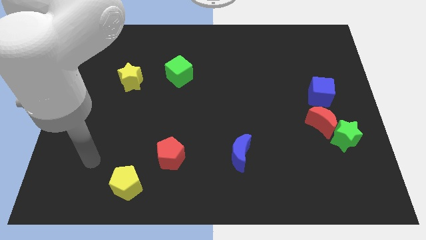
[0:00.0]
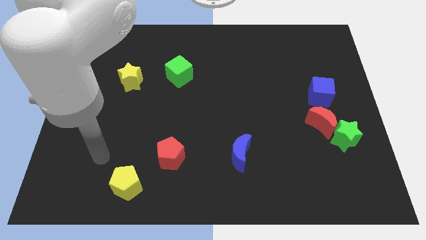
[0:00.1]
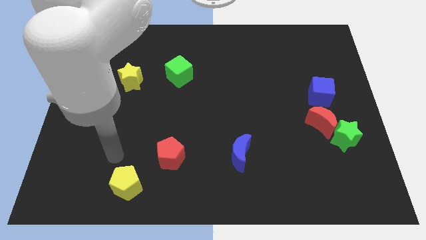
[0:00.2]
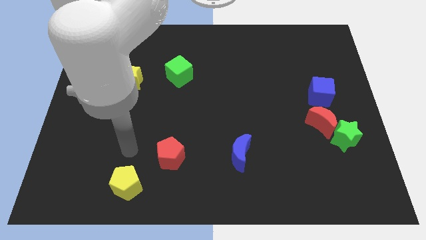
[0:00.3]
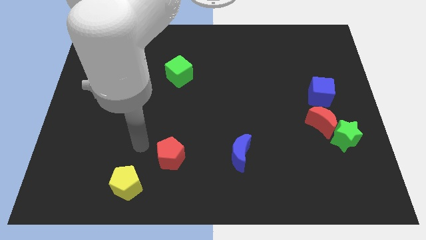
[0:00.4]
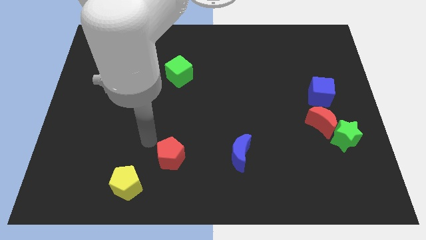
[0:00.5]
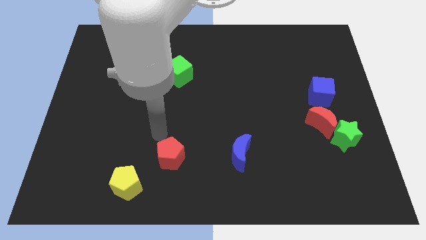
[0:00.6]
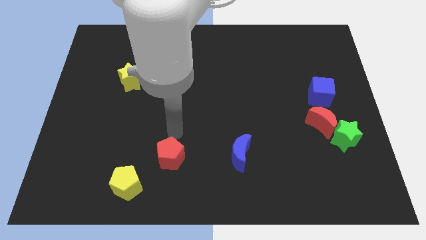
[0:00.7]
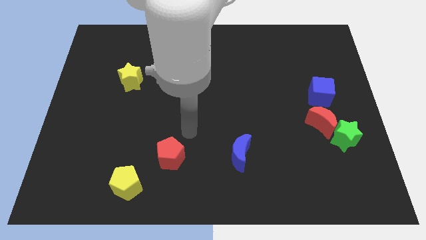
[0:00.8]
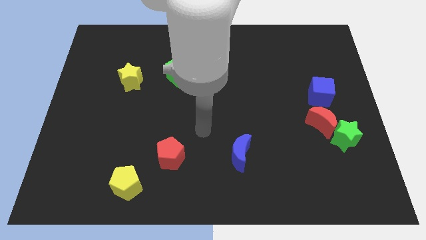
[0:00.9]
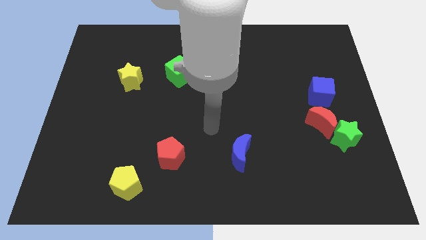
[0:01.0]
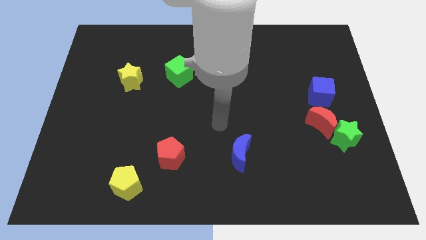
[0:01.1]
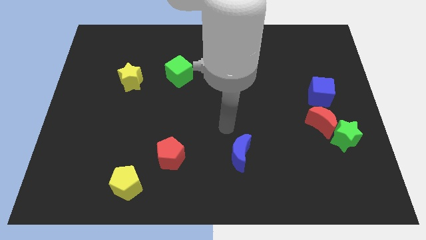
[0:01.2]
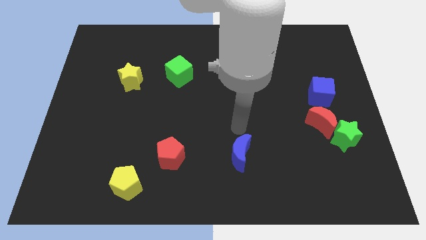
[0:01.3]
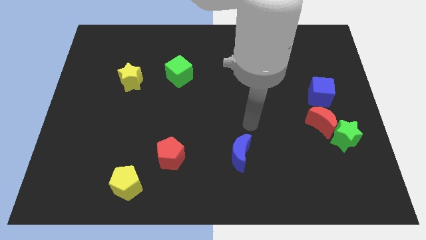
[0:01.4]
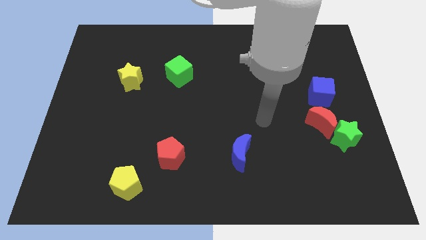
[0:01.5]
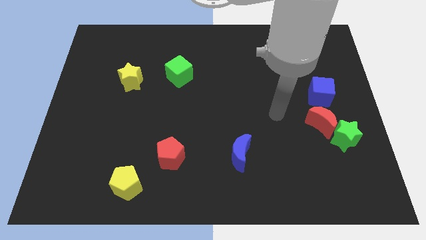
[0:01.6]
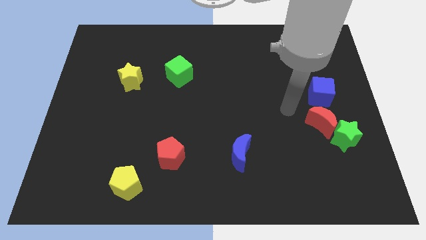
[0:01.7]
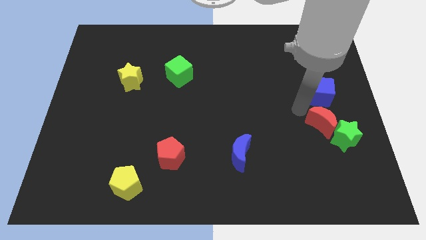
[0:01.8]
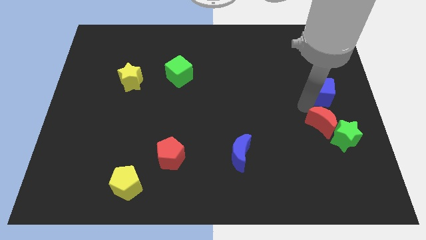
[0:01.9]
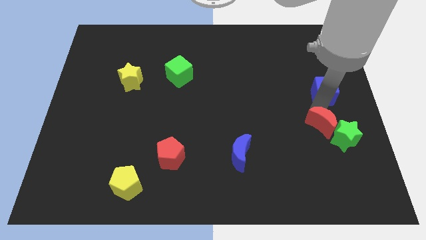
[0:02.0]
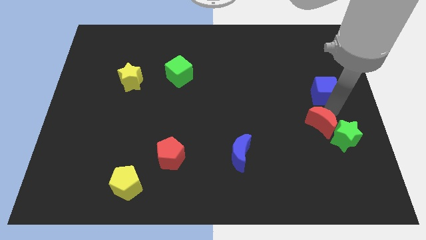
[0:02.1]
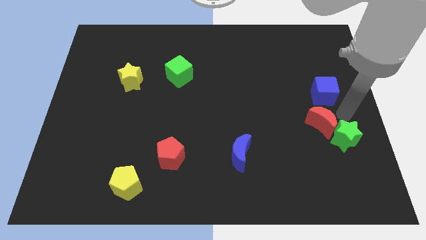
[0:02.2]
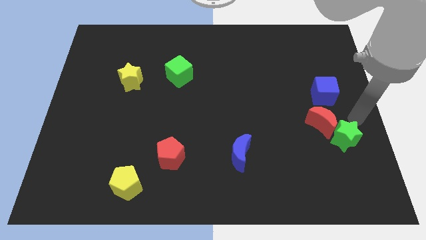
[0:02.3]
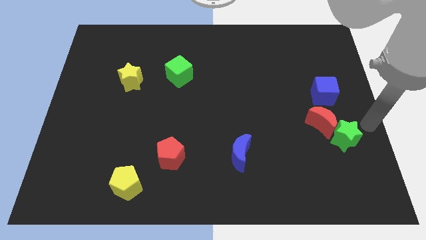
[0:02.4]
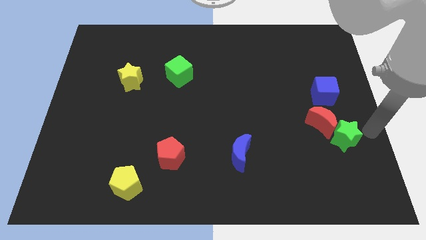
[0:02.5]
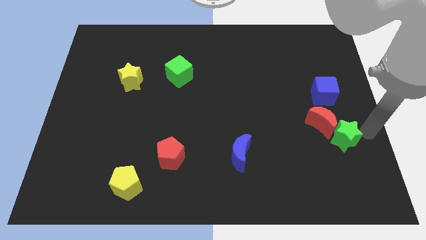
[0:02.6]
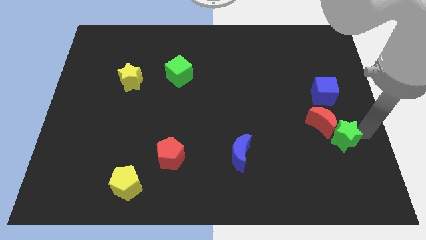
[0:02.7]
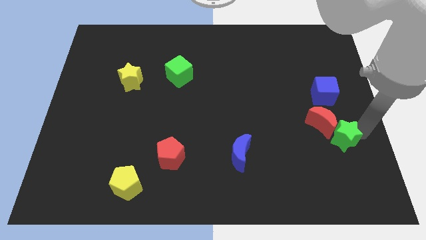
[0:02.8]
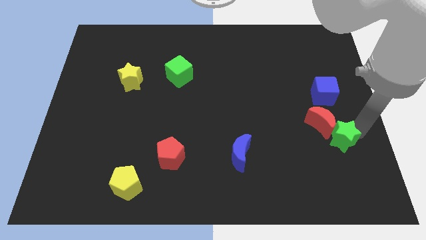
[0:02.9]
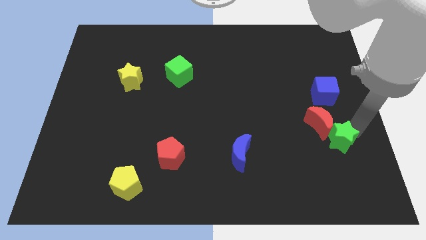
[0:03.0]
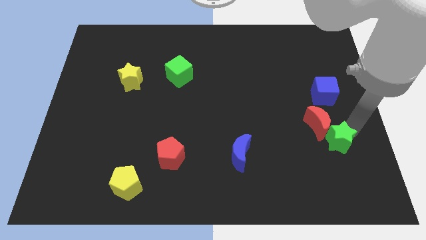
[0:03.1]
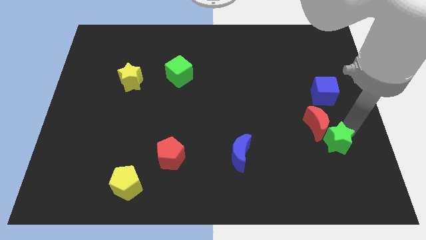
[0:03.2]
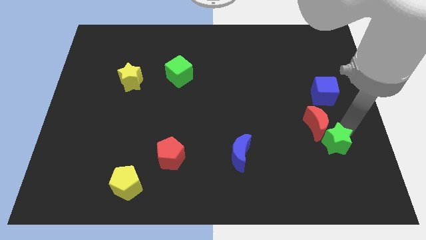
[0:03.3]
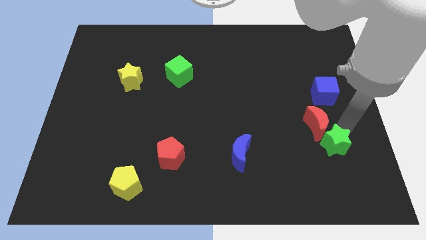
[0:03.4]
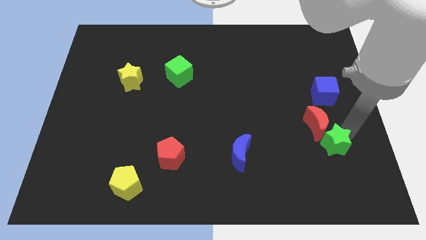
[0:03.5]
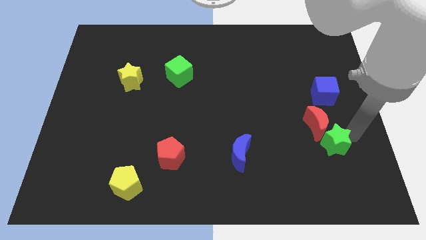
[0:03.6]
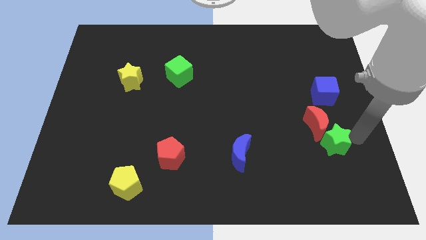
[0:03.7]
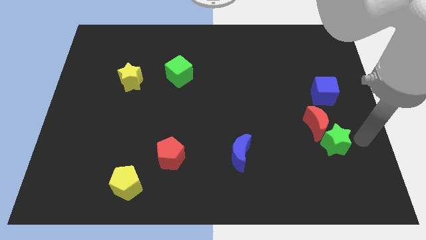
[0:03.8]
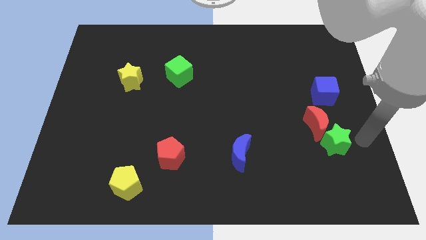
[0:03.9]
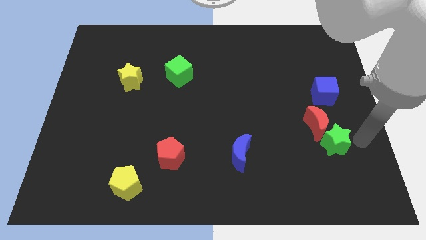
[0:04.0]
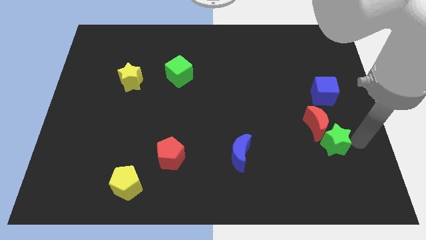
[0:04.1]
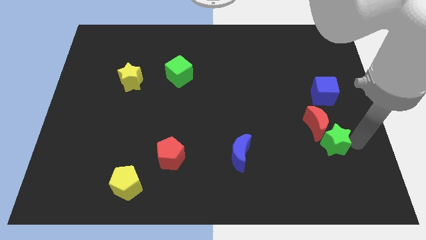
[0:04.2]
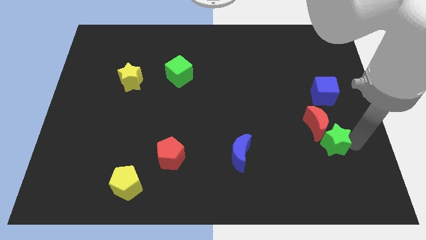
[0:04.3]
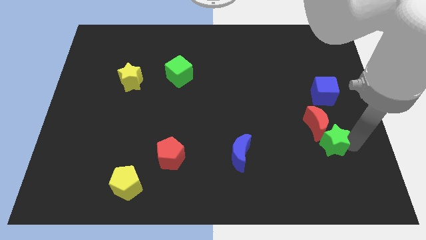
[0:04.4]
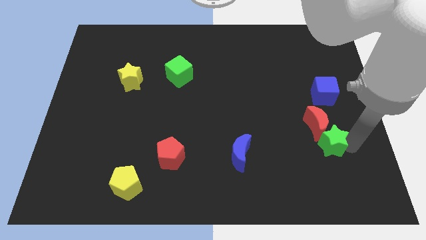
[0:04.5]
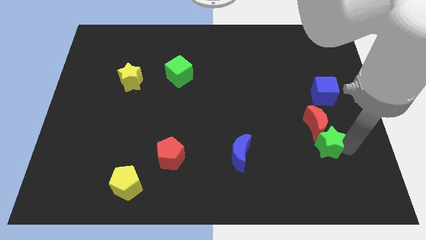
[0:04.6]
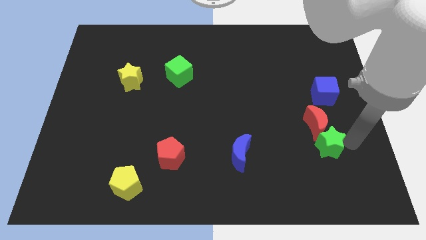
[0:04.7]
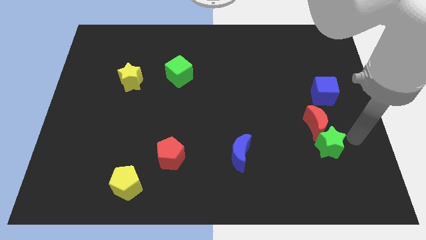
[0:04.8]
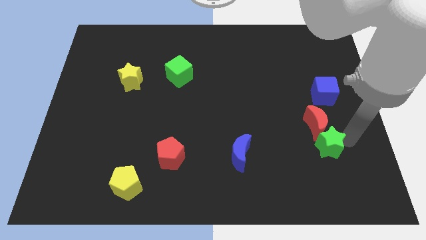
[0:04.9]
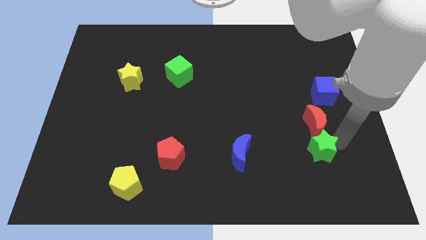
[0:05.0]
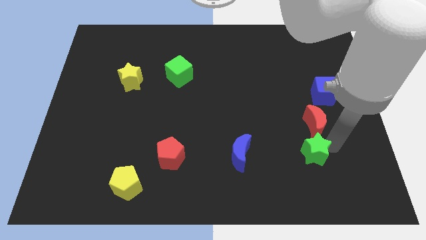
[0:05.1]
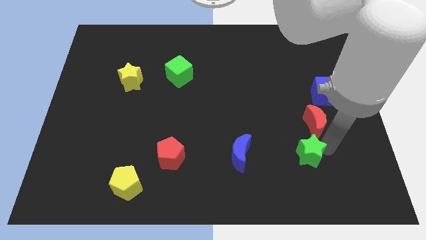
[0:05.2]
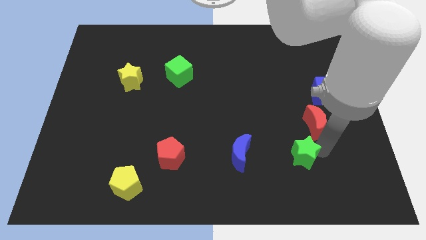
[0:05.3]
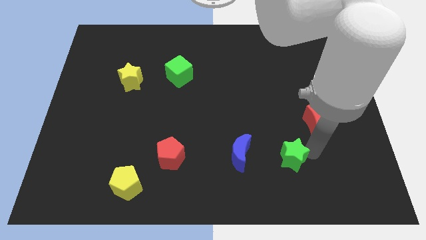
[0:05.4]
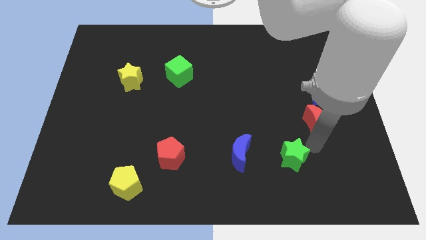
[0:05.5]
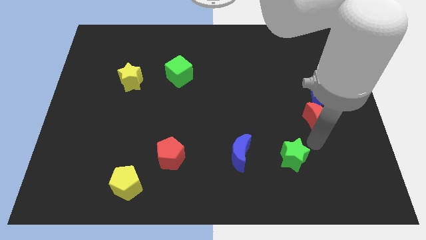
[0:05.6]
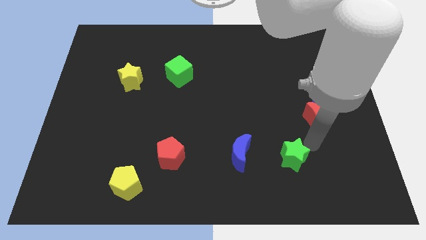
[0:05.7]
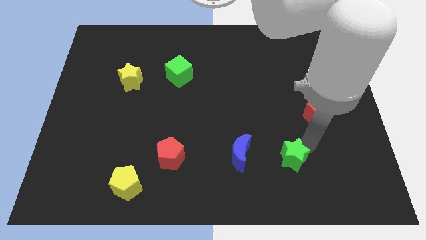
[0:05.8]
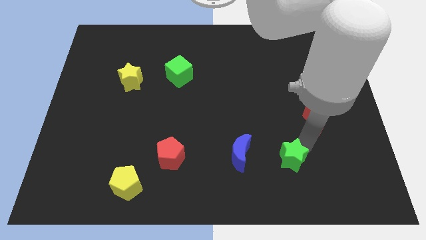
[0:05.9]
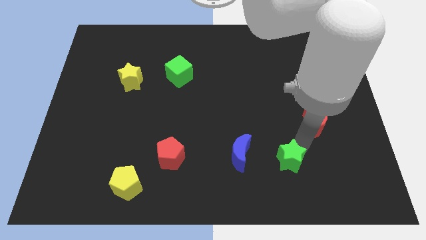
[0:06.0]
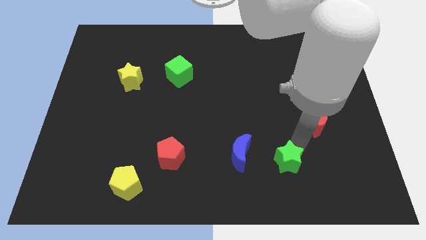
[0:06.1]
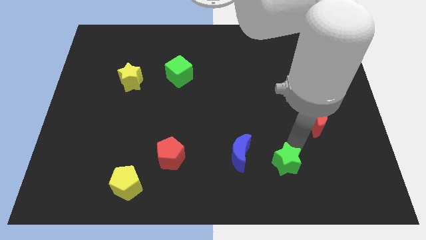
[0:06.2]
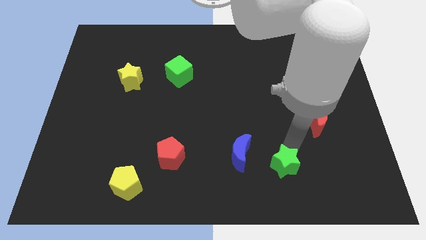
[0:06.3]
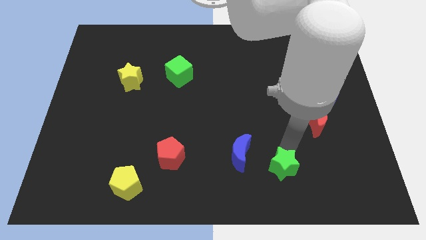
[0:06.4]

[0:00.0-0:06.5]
push the green star diagonally down and to the right of the blue moon

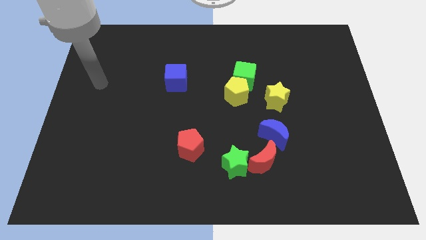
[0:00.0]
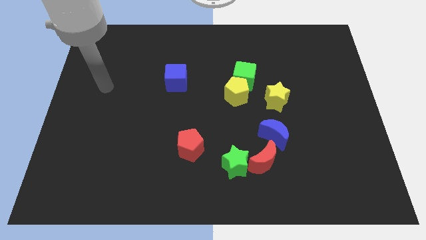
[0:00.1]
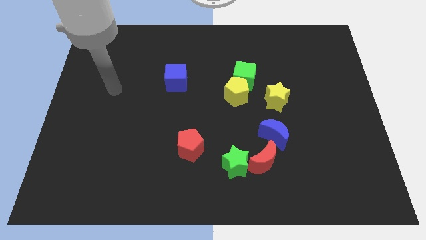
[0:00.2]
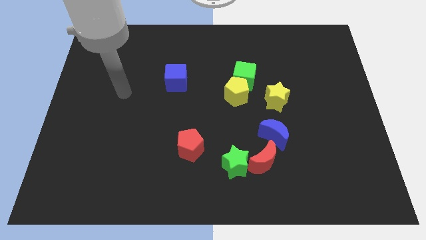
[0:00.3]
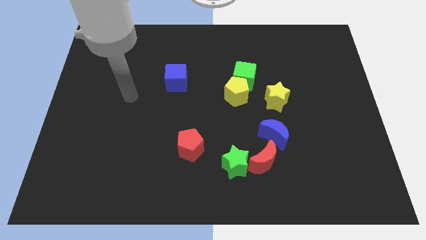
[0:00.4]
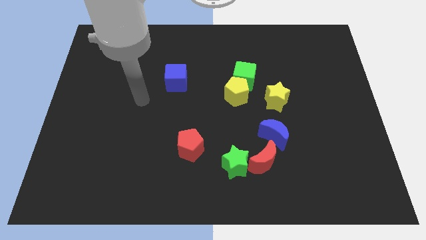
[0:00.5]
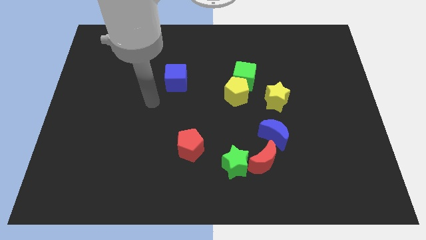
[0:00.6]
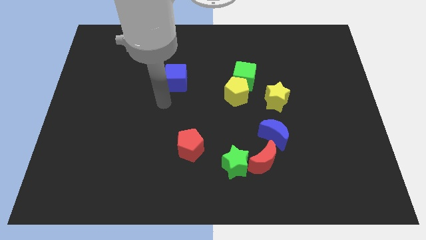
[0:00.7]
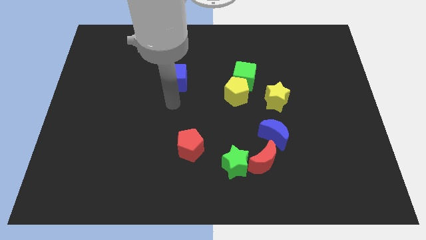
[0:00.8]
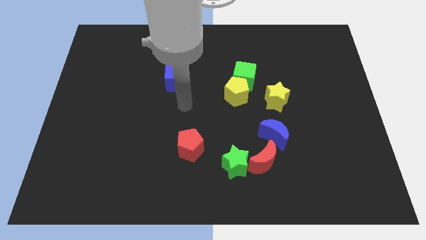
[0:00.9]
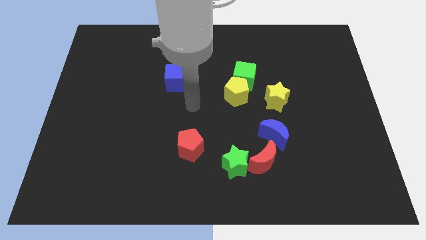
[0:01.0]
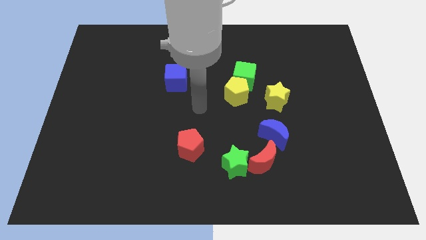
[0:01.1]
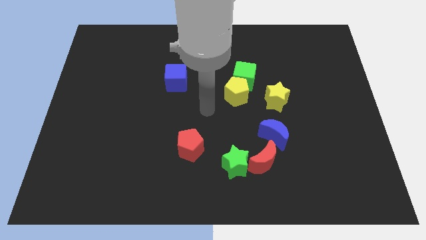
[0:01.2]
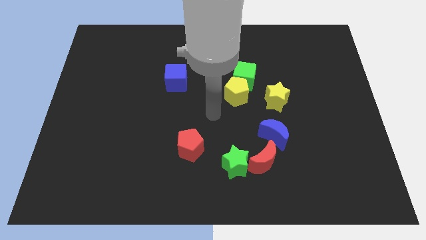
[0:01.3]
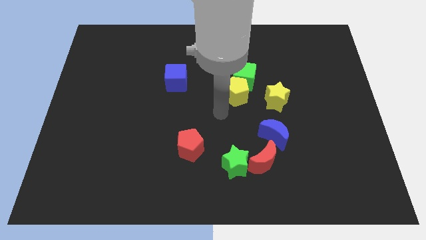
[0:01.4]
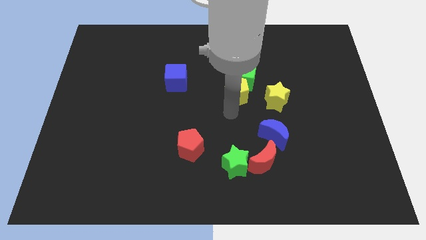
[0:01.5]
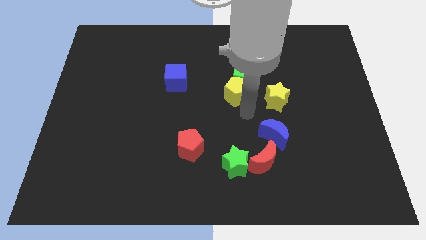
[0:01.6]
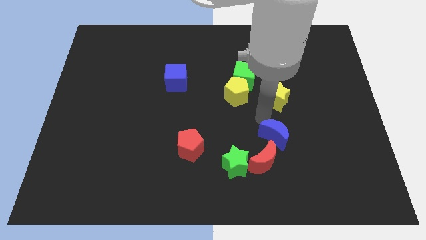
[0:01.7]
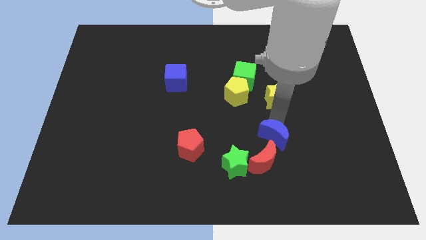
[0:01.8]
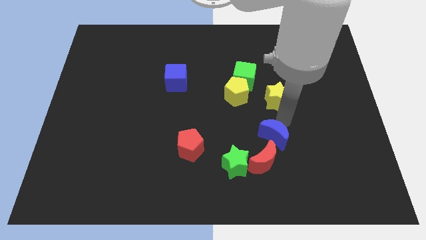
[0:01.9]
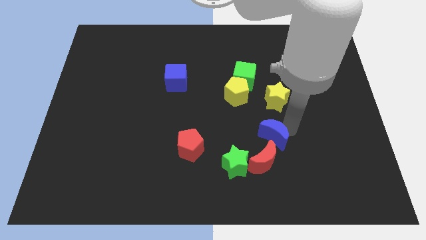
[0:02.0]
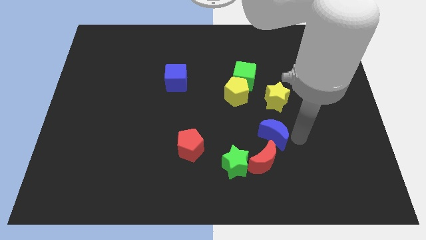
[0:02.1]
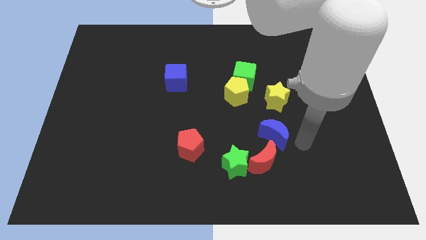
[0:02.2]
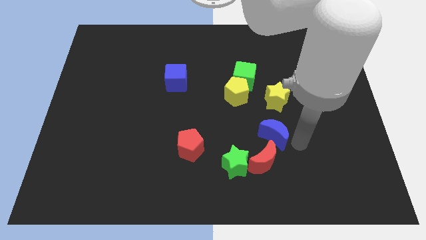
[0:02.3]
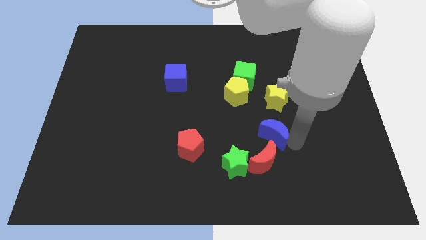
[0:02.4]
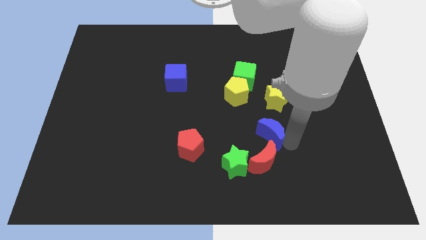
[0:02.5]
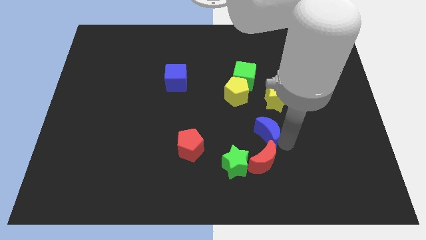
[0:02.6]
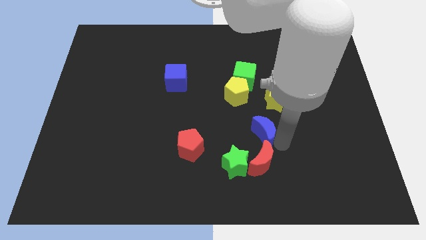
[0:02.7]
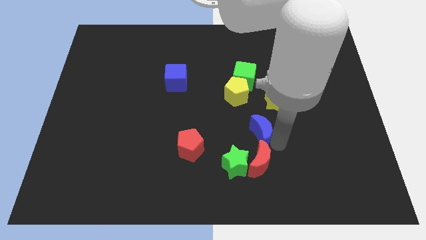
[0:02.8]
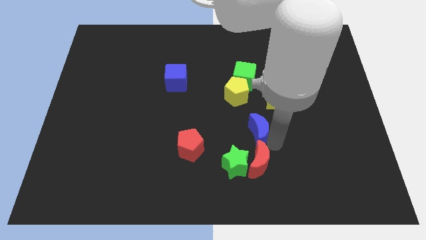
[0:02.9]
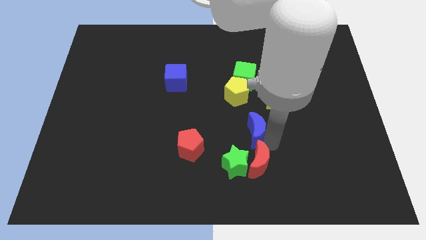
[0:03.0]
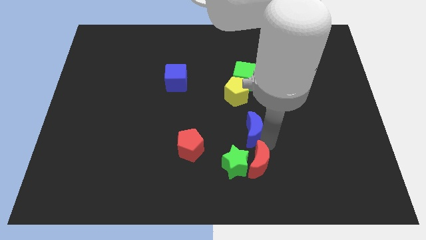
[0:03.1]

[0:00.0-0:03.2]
push the blue moon above the green star
